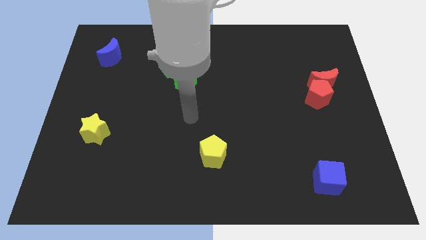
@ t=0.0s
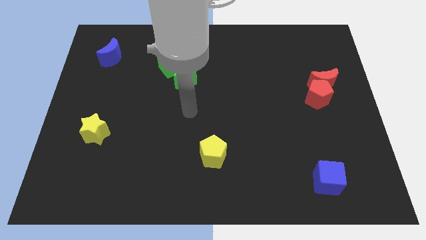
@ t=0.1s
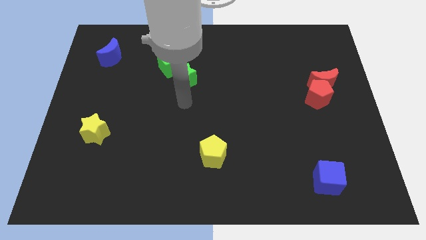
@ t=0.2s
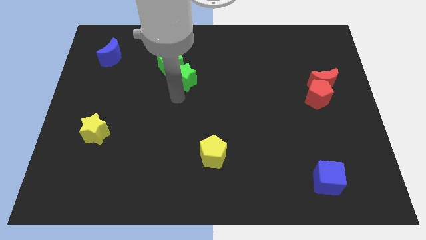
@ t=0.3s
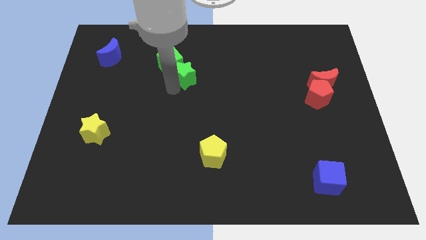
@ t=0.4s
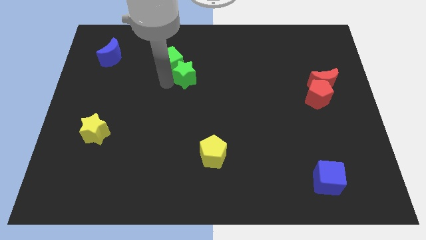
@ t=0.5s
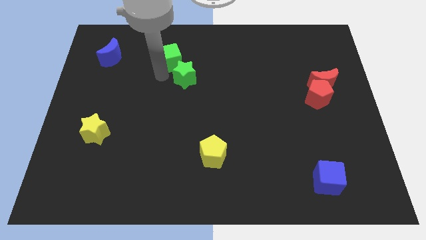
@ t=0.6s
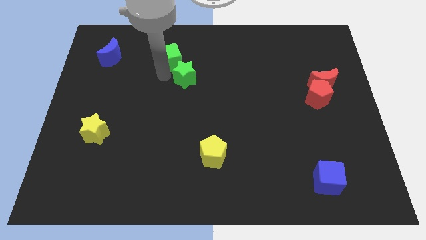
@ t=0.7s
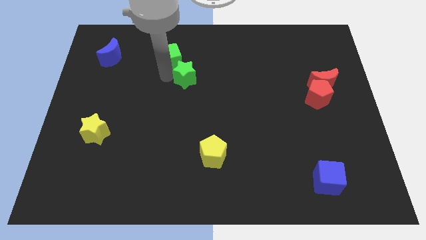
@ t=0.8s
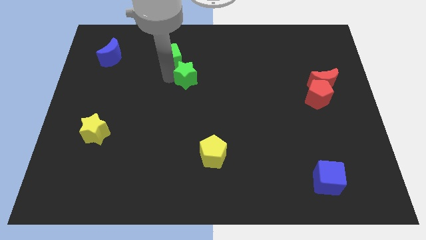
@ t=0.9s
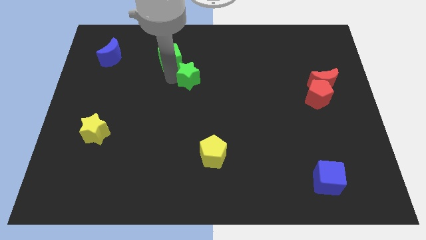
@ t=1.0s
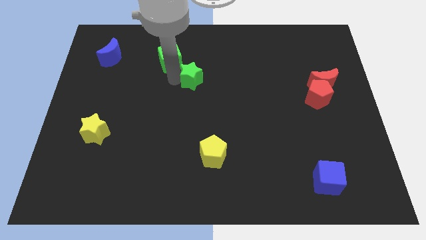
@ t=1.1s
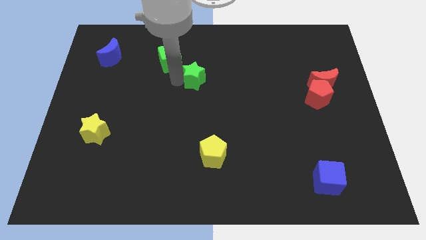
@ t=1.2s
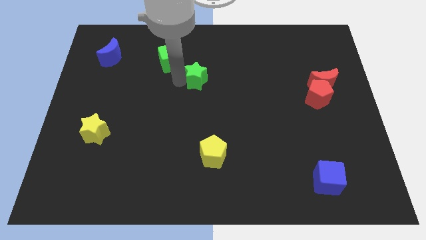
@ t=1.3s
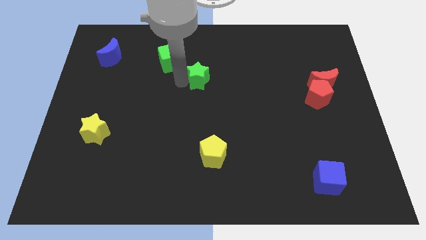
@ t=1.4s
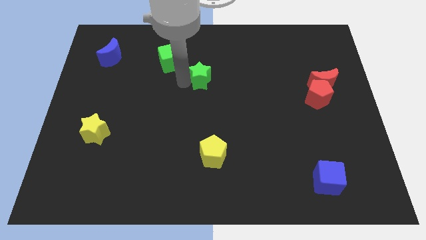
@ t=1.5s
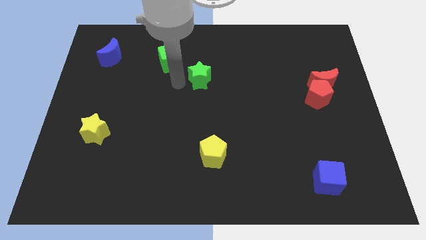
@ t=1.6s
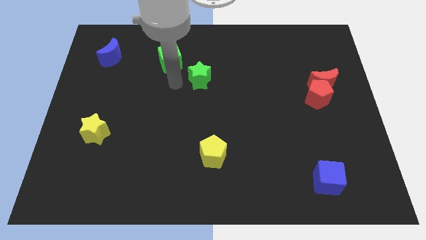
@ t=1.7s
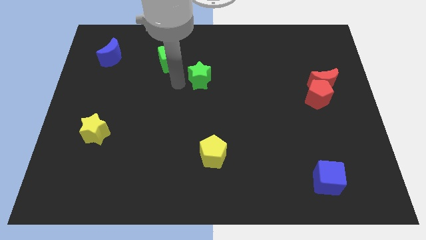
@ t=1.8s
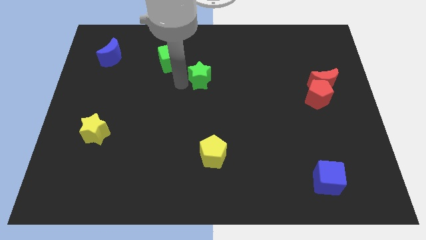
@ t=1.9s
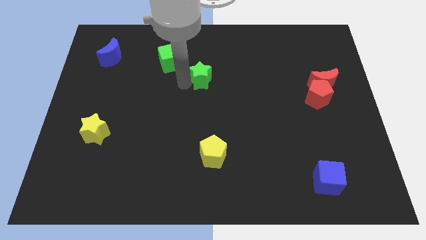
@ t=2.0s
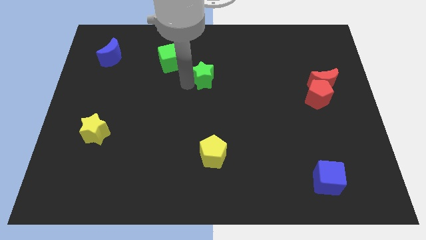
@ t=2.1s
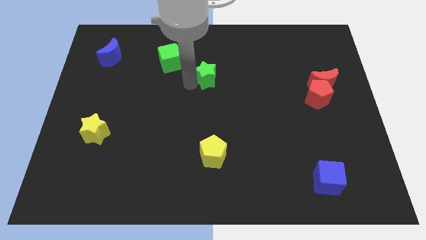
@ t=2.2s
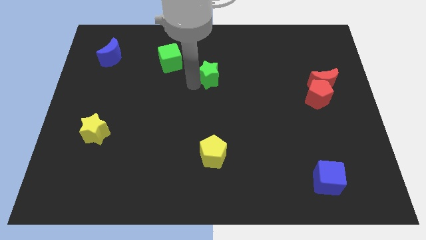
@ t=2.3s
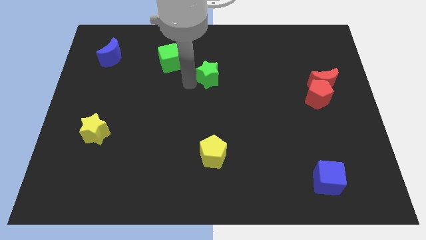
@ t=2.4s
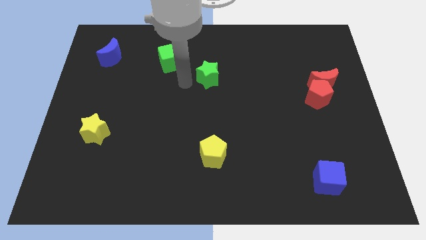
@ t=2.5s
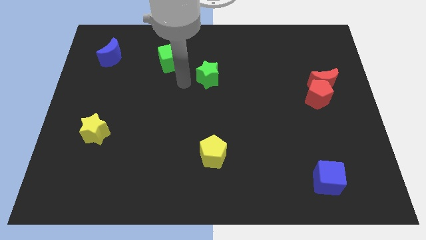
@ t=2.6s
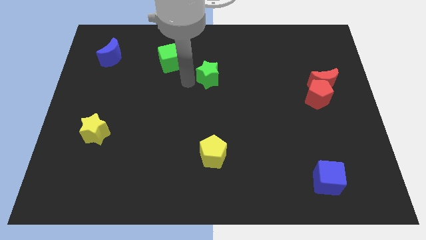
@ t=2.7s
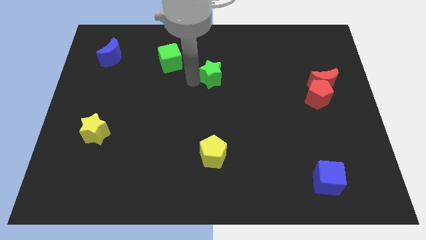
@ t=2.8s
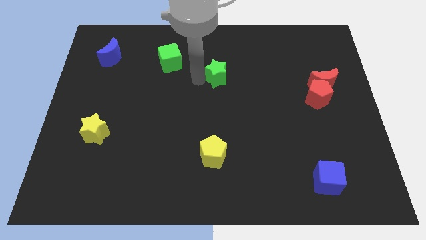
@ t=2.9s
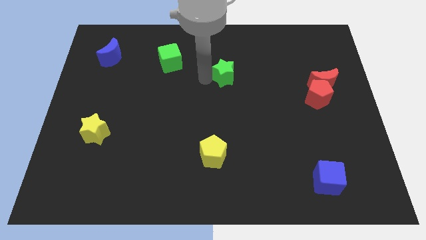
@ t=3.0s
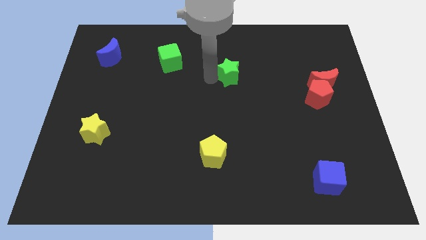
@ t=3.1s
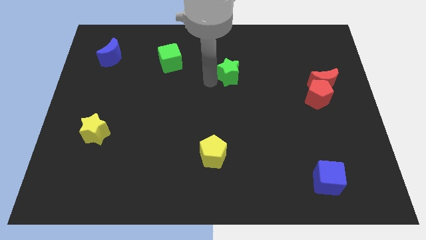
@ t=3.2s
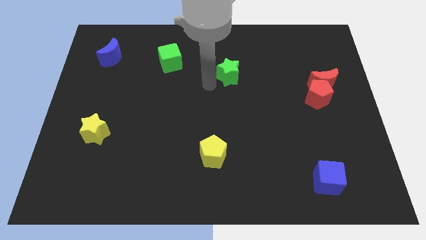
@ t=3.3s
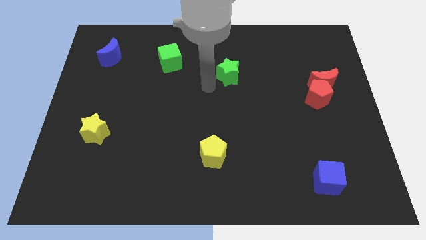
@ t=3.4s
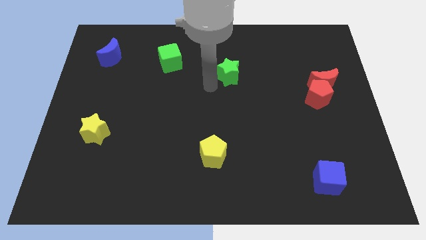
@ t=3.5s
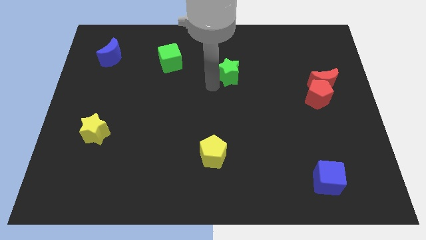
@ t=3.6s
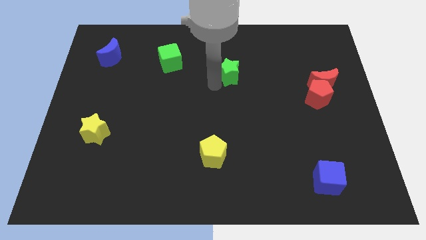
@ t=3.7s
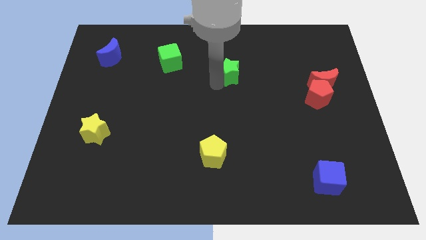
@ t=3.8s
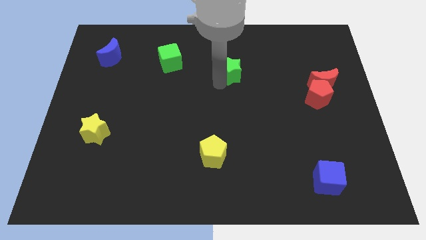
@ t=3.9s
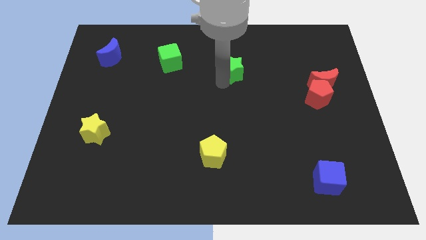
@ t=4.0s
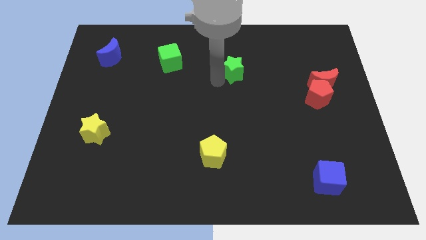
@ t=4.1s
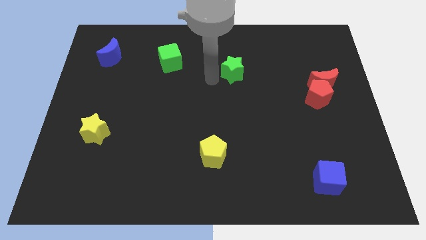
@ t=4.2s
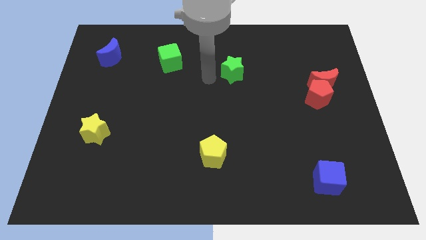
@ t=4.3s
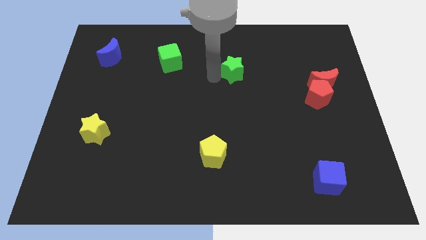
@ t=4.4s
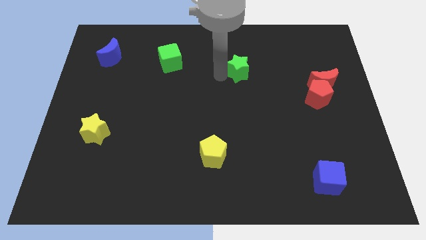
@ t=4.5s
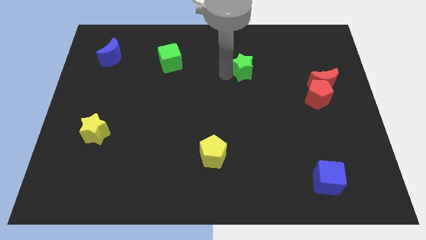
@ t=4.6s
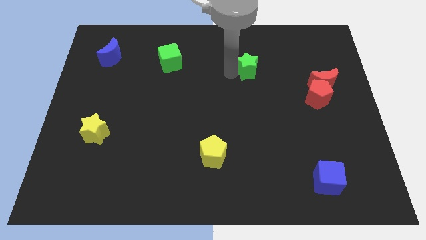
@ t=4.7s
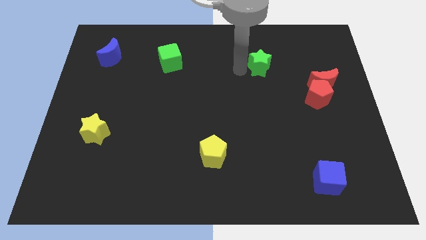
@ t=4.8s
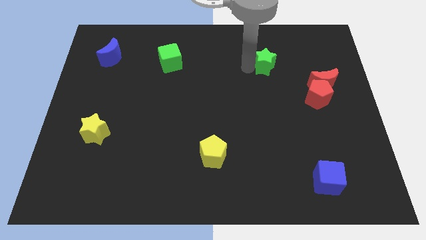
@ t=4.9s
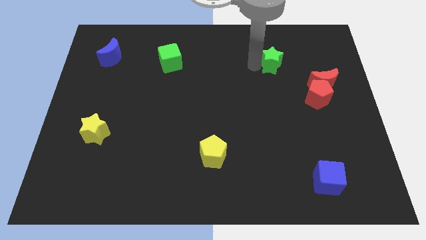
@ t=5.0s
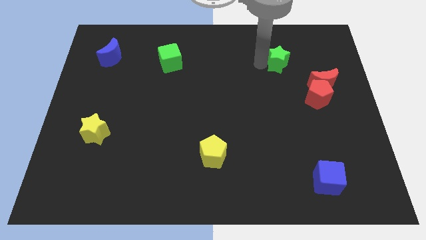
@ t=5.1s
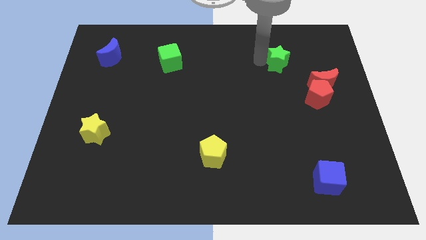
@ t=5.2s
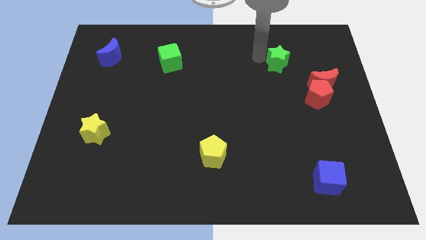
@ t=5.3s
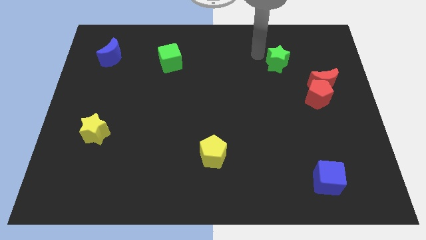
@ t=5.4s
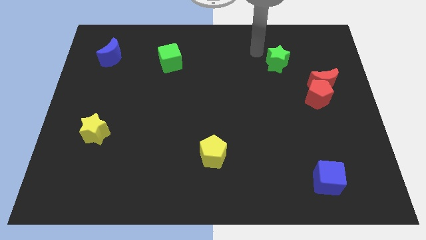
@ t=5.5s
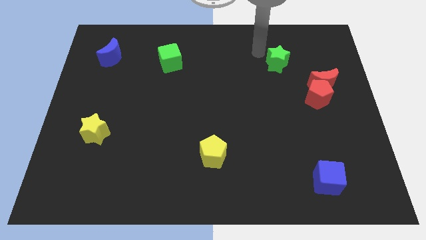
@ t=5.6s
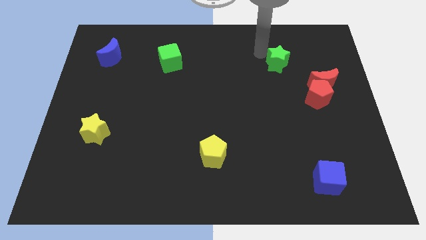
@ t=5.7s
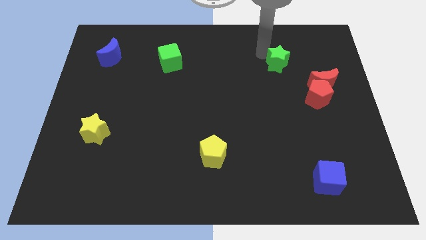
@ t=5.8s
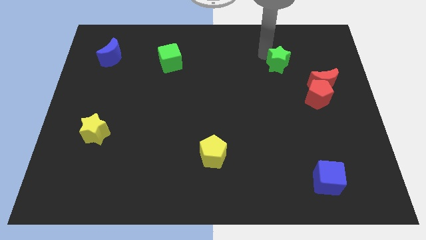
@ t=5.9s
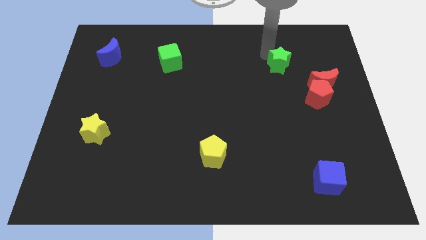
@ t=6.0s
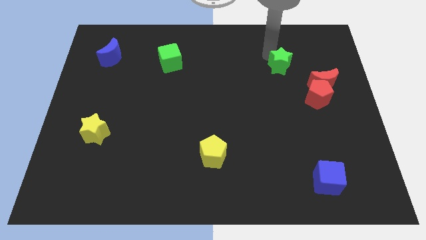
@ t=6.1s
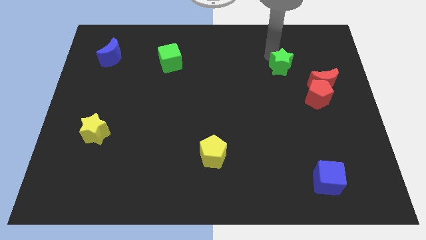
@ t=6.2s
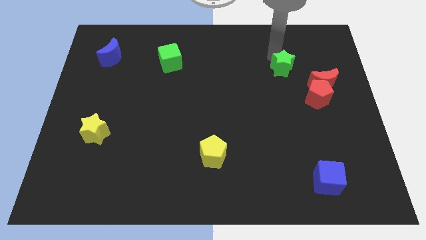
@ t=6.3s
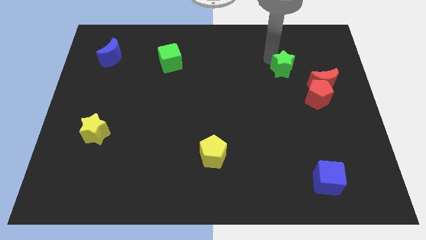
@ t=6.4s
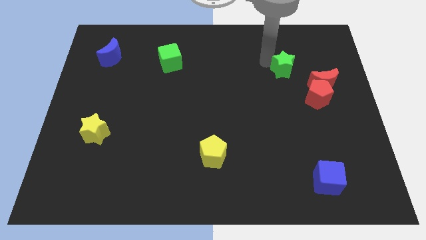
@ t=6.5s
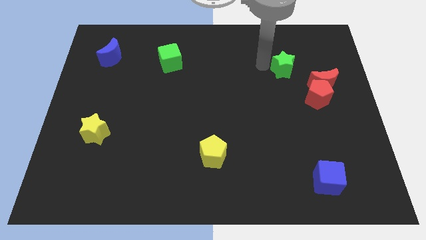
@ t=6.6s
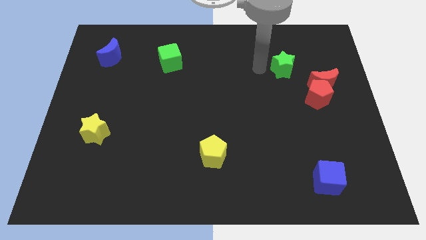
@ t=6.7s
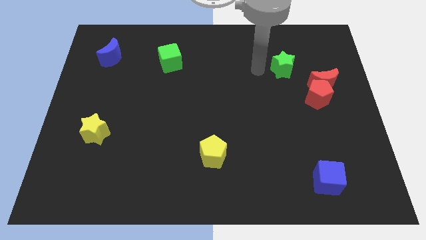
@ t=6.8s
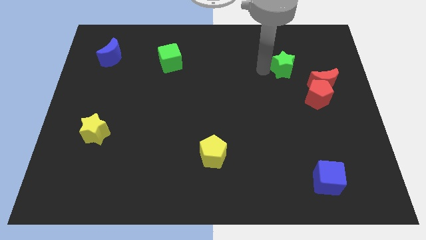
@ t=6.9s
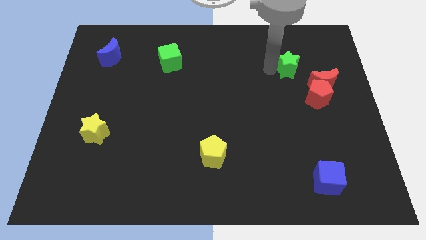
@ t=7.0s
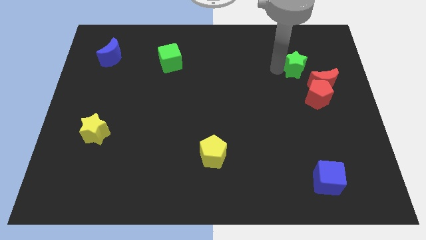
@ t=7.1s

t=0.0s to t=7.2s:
move the green star to the top side of the red pentagon
